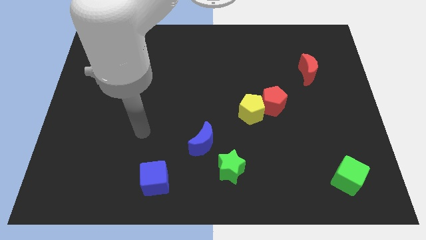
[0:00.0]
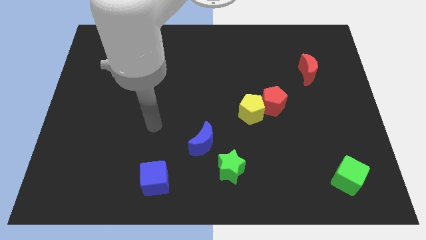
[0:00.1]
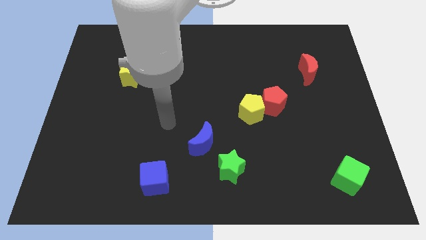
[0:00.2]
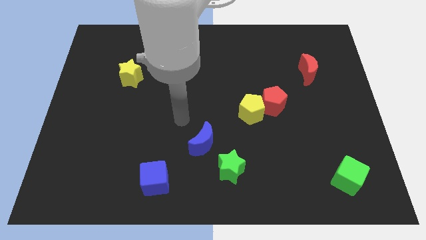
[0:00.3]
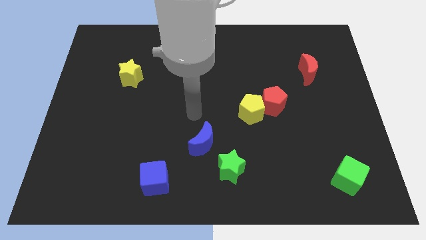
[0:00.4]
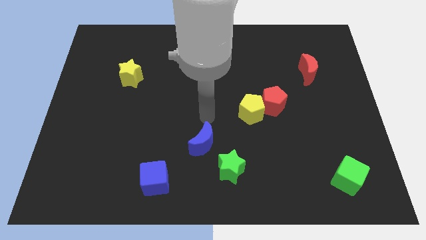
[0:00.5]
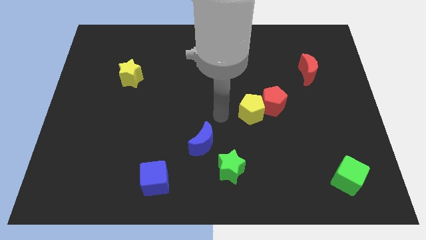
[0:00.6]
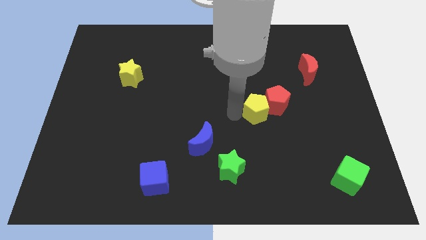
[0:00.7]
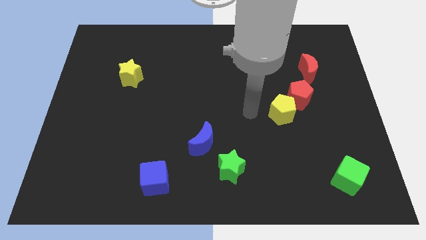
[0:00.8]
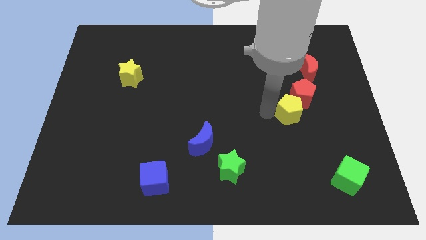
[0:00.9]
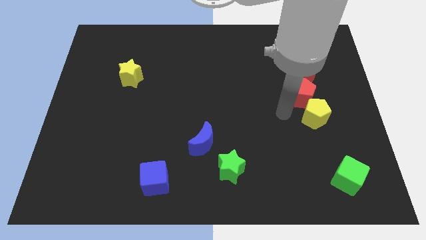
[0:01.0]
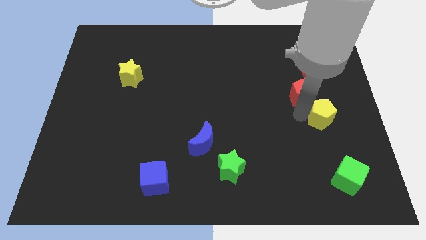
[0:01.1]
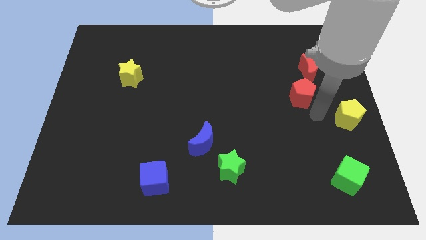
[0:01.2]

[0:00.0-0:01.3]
move the red pentagon away from the yellow pentagon

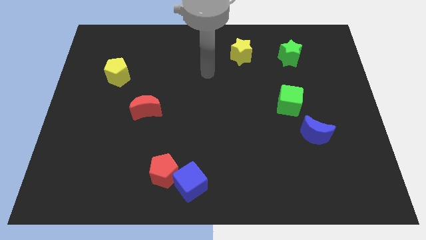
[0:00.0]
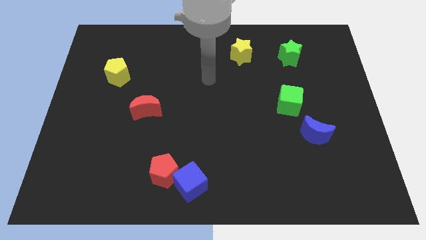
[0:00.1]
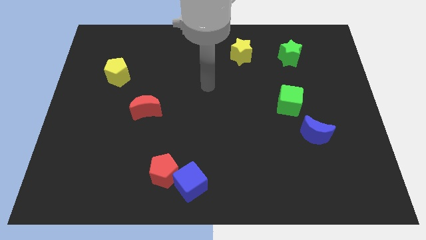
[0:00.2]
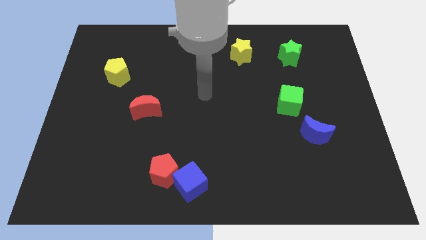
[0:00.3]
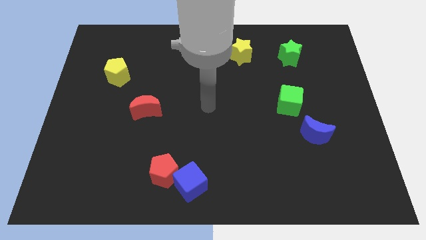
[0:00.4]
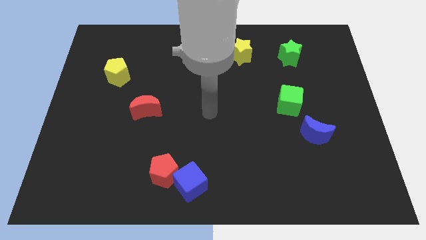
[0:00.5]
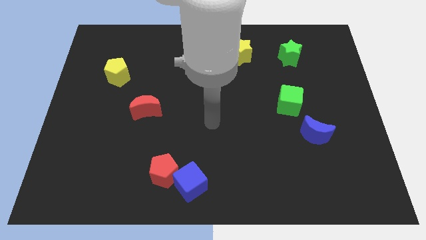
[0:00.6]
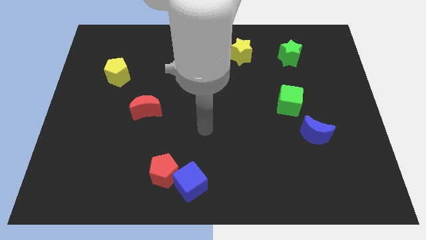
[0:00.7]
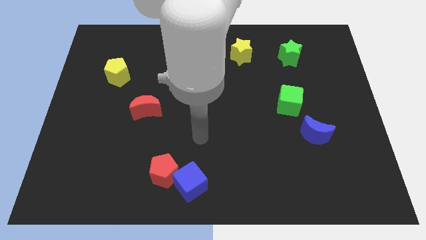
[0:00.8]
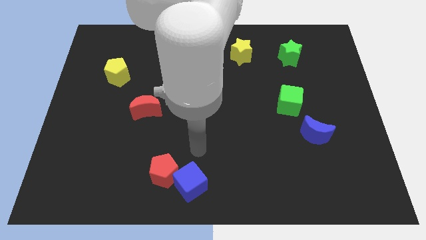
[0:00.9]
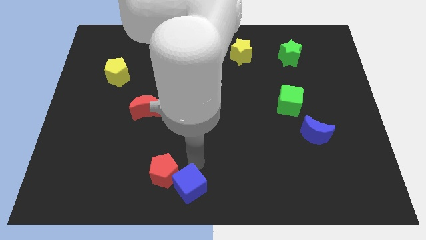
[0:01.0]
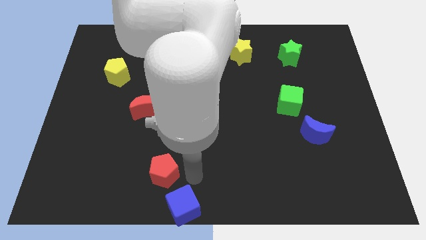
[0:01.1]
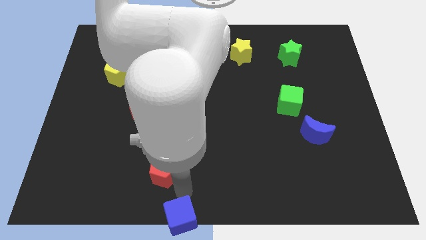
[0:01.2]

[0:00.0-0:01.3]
pull the red pentagon apart from the blue cube

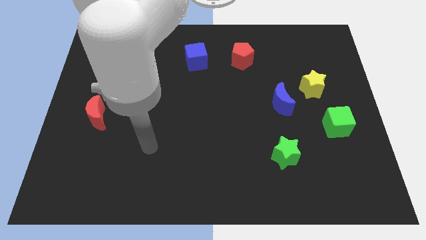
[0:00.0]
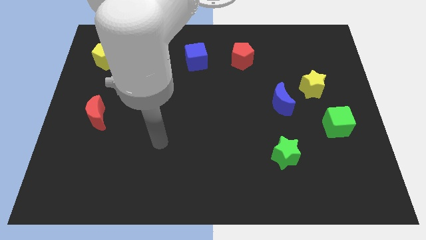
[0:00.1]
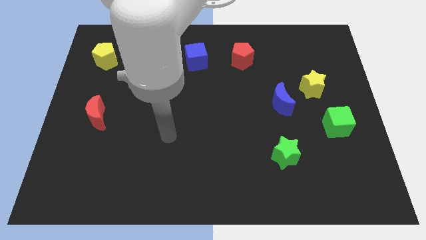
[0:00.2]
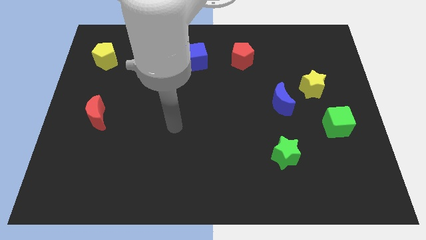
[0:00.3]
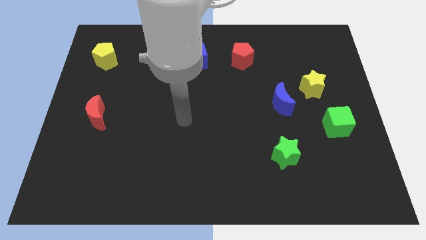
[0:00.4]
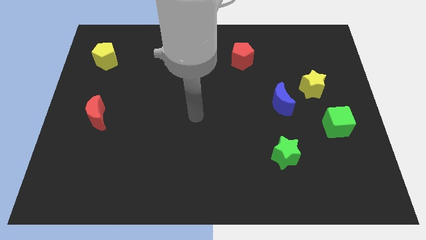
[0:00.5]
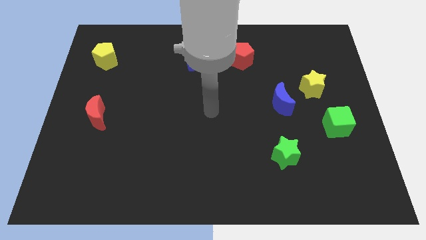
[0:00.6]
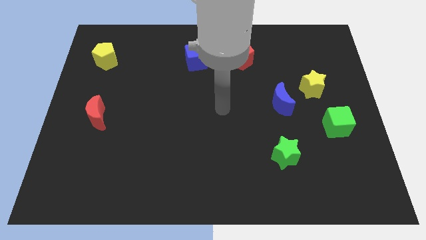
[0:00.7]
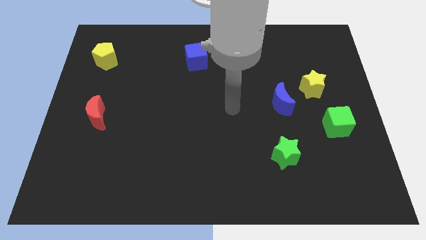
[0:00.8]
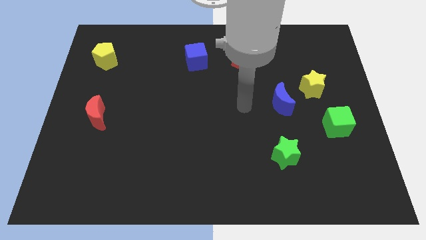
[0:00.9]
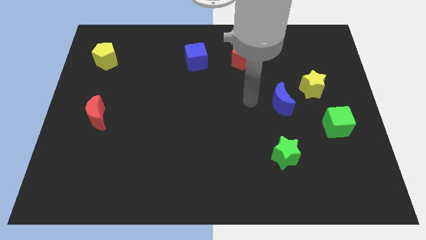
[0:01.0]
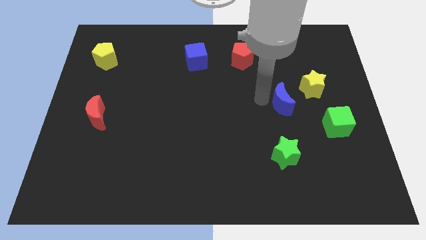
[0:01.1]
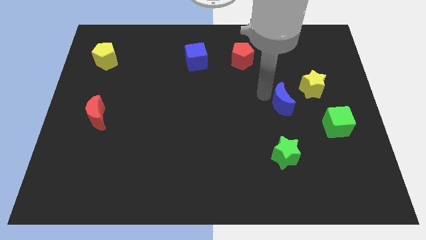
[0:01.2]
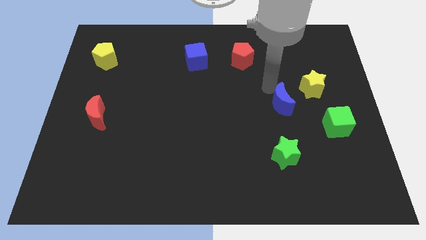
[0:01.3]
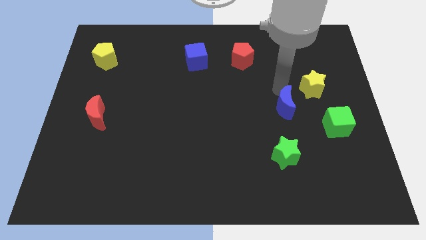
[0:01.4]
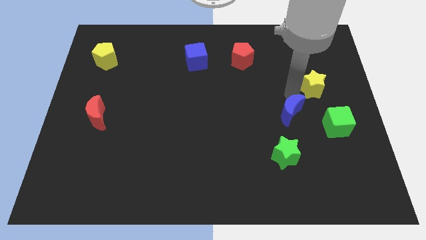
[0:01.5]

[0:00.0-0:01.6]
move the blue moon away from the yellow star

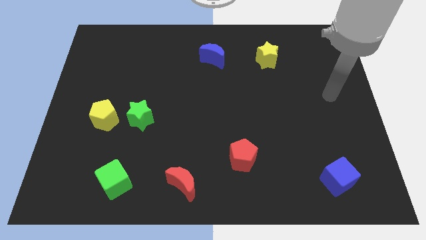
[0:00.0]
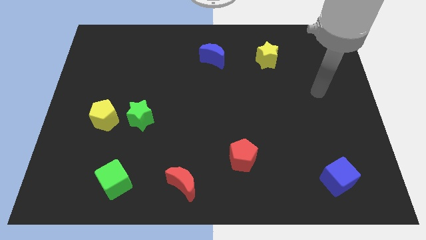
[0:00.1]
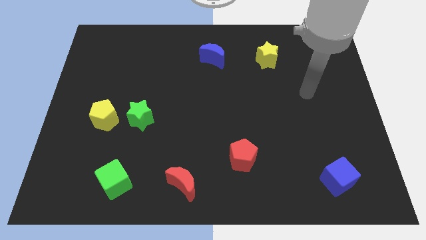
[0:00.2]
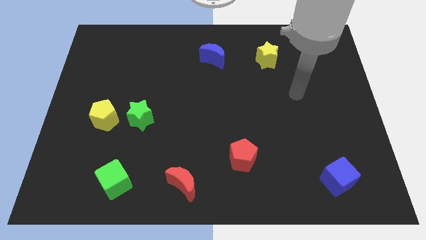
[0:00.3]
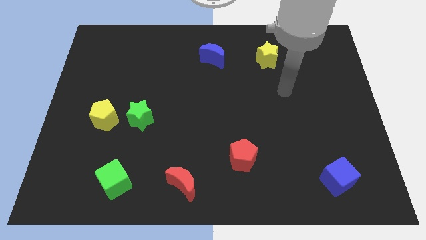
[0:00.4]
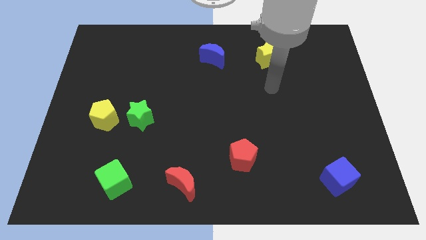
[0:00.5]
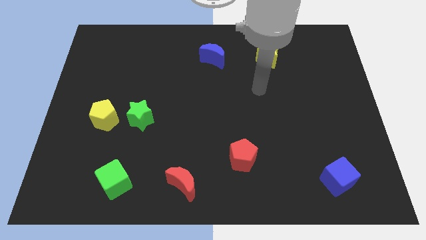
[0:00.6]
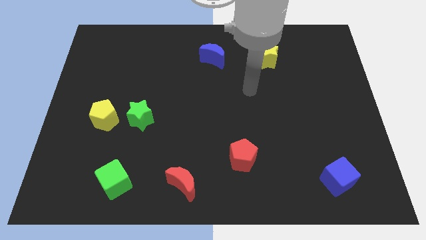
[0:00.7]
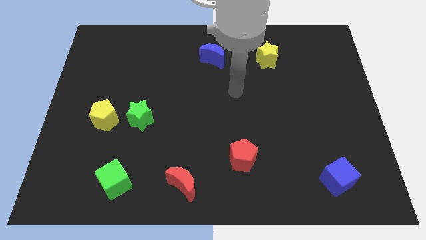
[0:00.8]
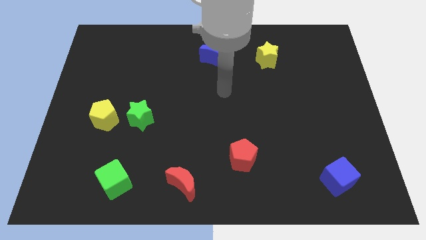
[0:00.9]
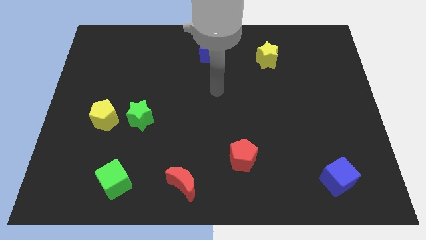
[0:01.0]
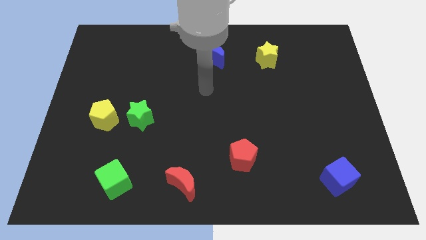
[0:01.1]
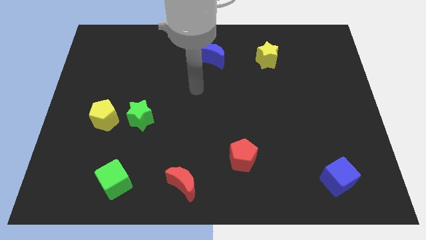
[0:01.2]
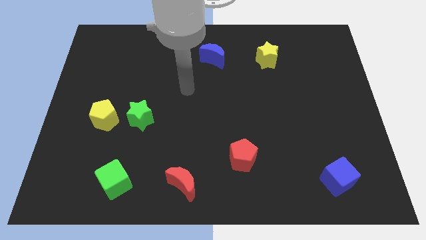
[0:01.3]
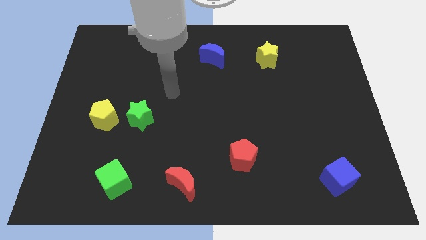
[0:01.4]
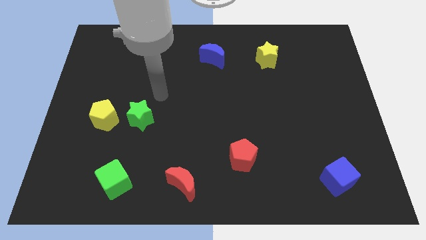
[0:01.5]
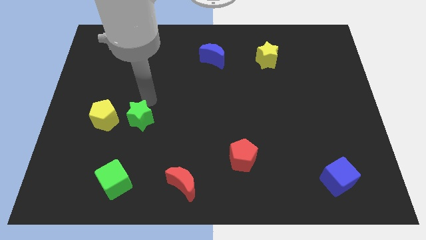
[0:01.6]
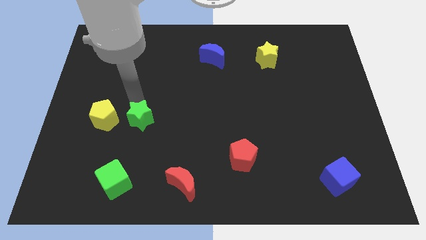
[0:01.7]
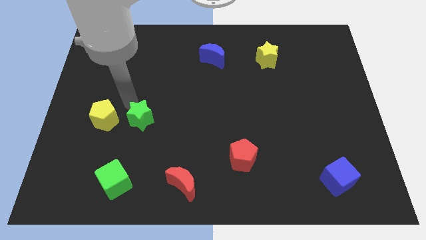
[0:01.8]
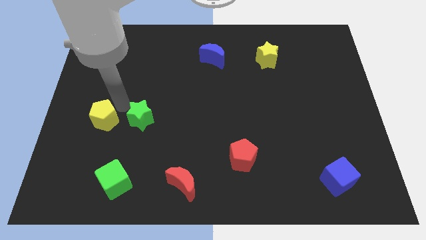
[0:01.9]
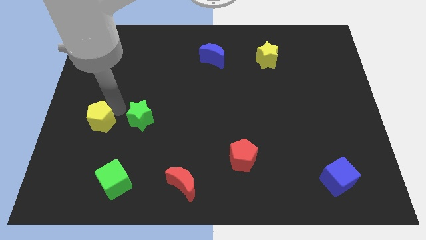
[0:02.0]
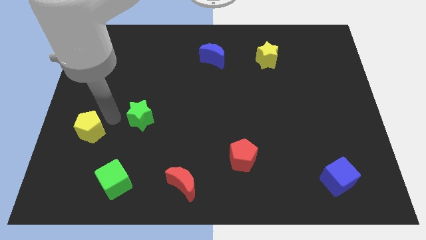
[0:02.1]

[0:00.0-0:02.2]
separate the green star from the yellow pentagon

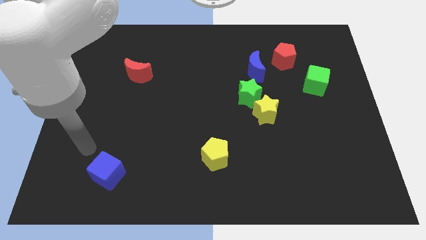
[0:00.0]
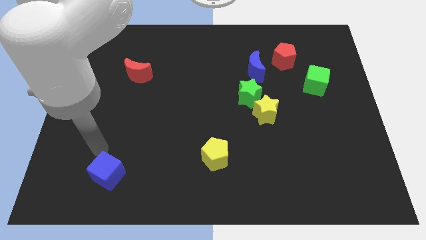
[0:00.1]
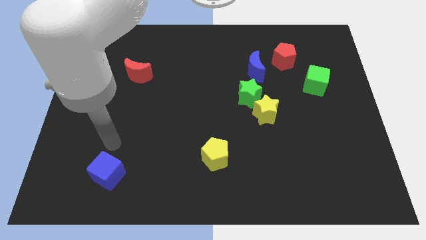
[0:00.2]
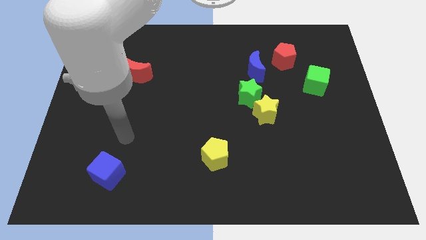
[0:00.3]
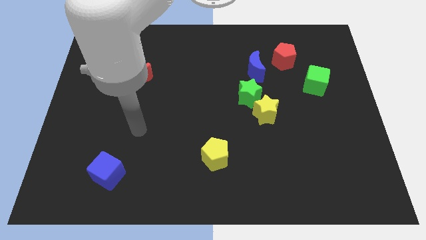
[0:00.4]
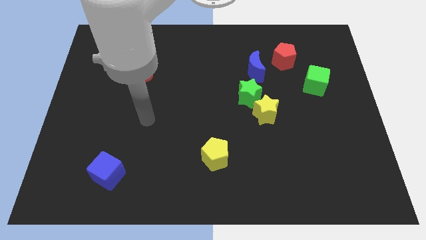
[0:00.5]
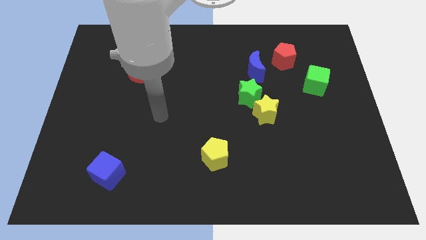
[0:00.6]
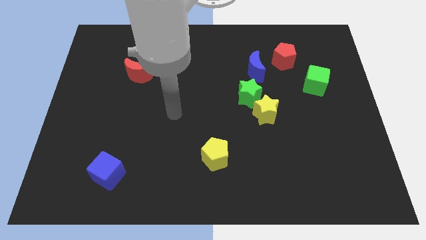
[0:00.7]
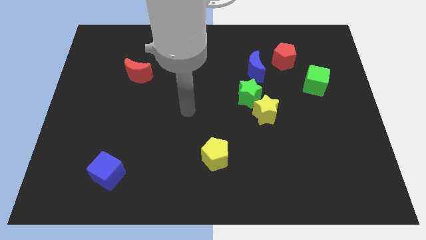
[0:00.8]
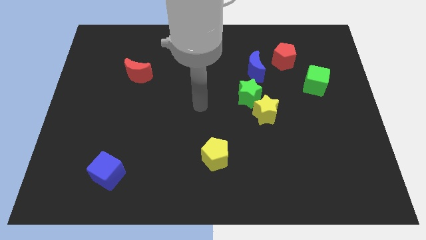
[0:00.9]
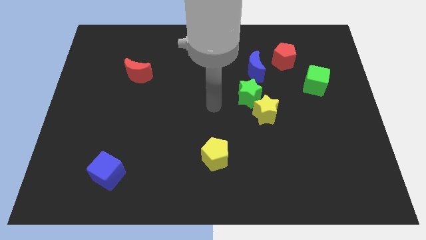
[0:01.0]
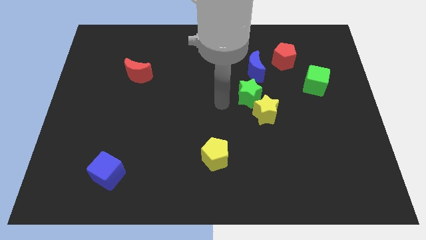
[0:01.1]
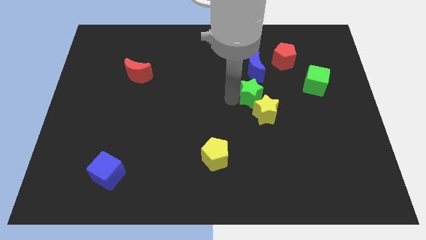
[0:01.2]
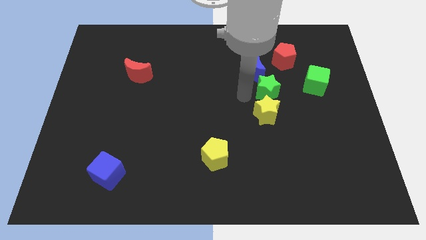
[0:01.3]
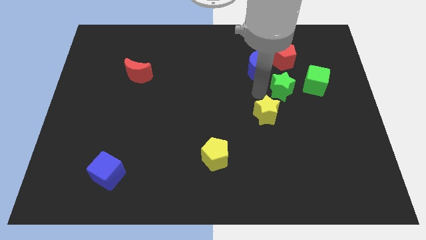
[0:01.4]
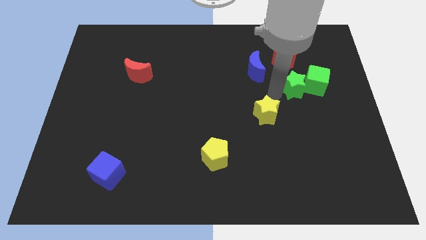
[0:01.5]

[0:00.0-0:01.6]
pull the yellow star apart from the green star

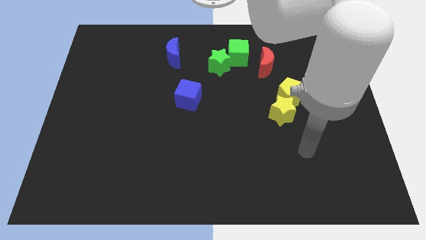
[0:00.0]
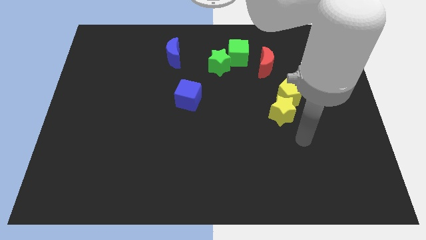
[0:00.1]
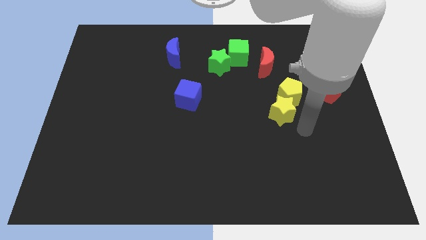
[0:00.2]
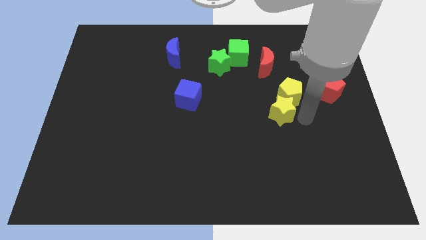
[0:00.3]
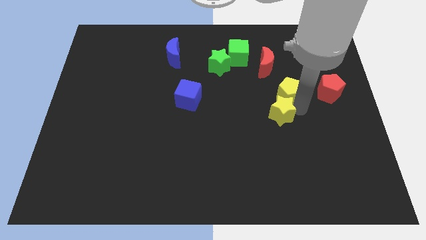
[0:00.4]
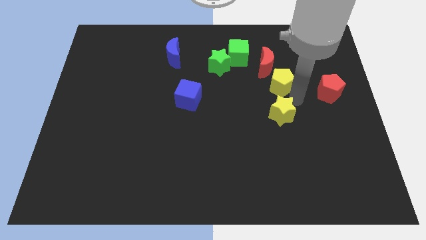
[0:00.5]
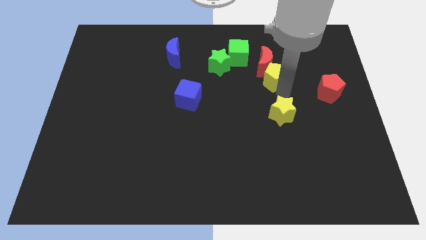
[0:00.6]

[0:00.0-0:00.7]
separate the yellow star from the yellow pentagon

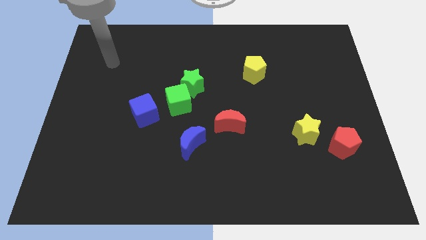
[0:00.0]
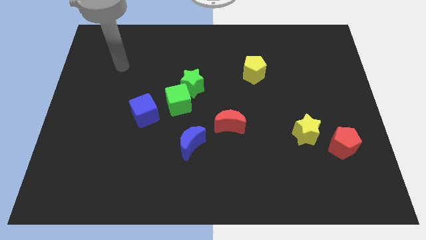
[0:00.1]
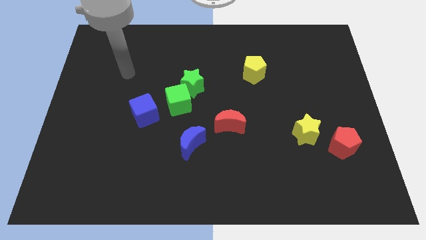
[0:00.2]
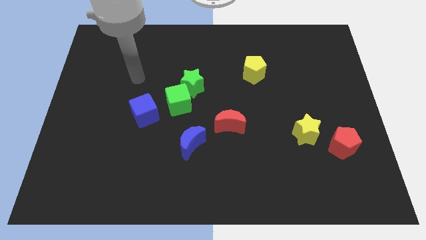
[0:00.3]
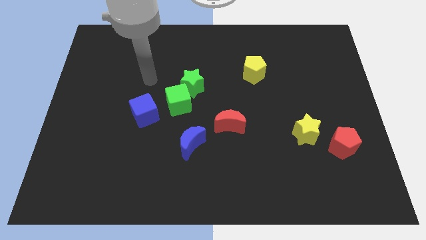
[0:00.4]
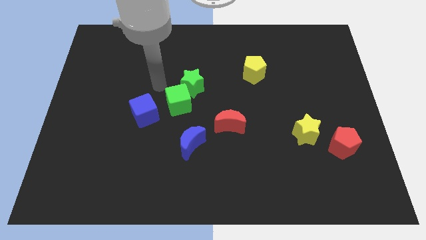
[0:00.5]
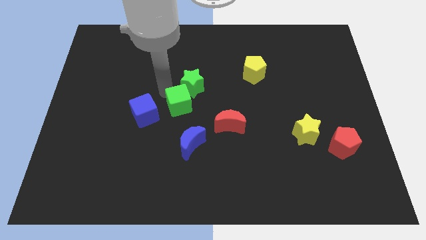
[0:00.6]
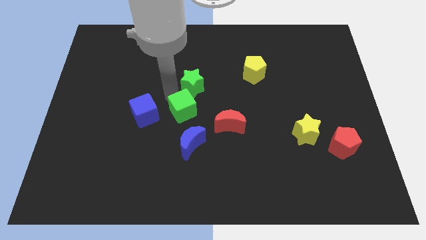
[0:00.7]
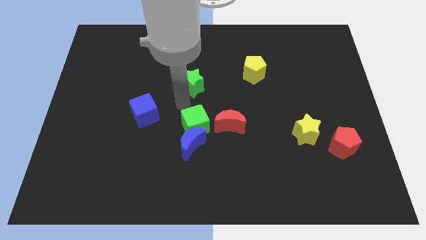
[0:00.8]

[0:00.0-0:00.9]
pull the green star apart from the green cube
